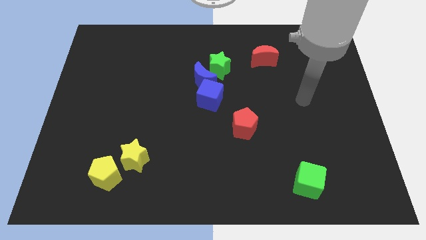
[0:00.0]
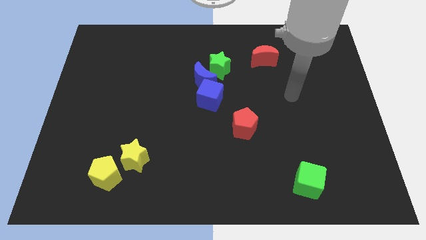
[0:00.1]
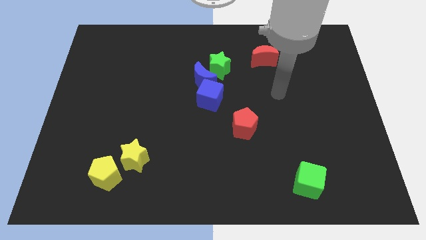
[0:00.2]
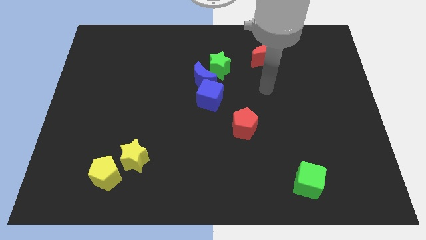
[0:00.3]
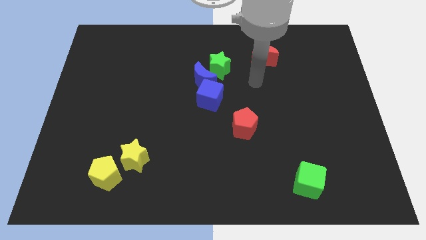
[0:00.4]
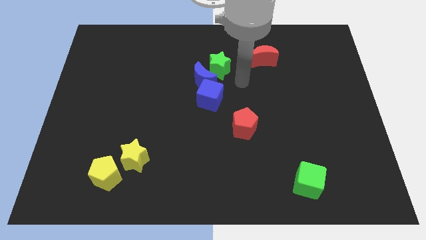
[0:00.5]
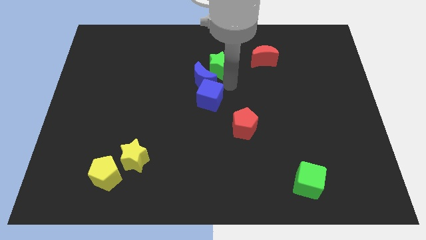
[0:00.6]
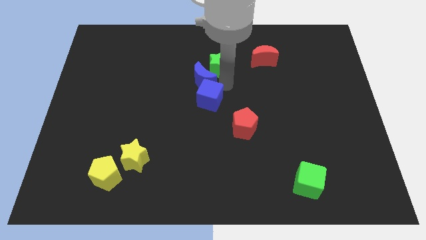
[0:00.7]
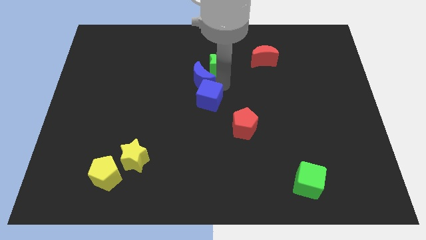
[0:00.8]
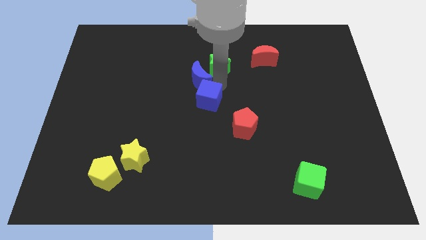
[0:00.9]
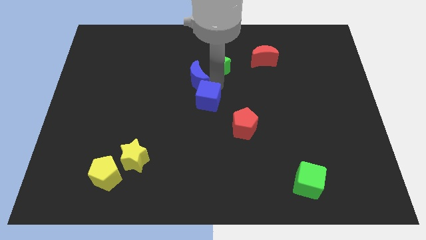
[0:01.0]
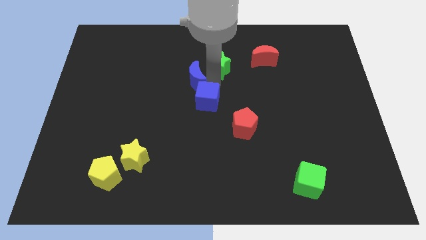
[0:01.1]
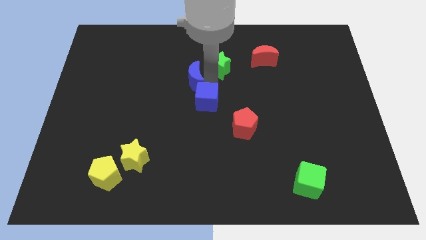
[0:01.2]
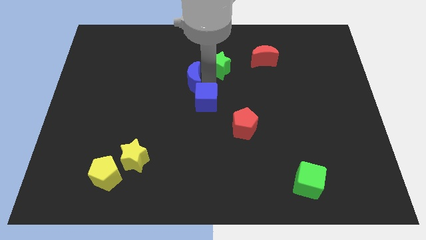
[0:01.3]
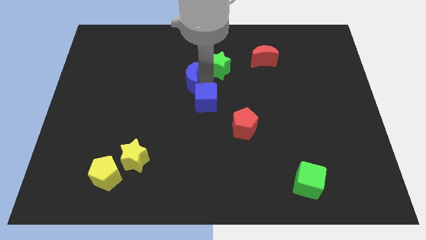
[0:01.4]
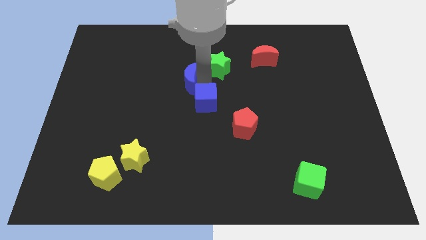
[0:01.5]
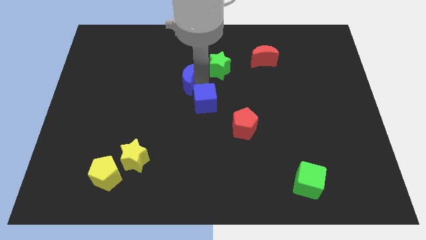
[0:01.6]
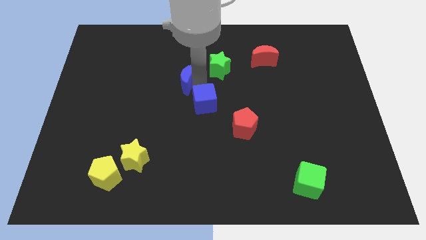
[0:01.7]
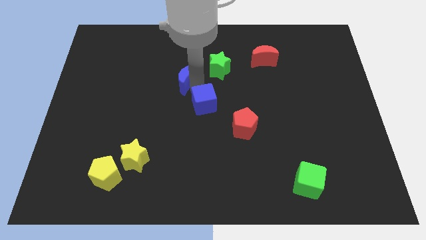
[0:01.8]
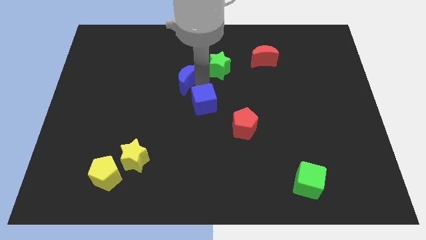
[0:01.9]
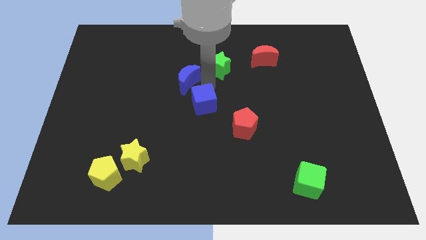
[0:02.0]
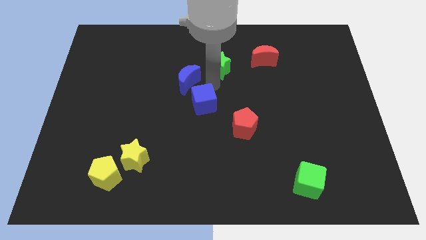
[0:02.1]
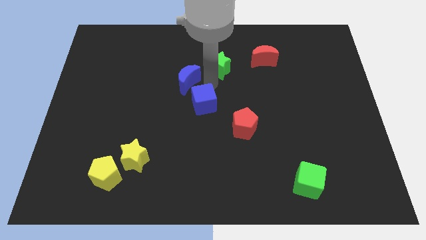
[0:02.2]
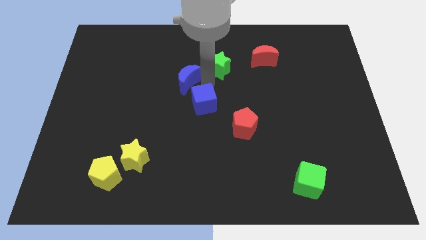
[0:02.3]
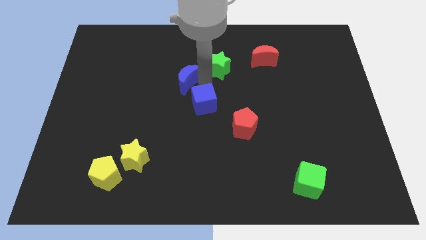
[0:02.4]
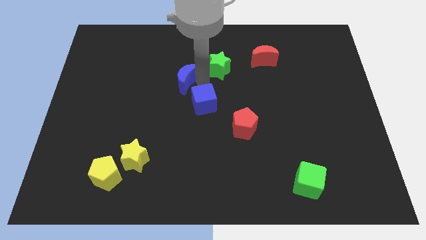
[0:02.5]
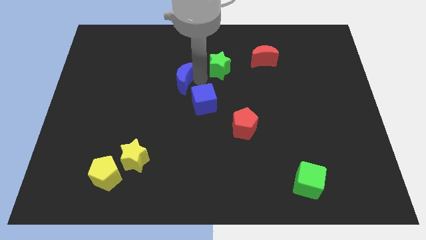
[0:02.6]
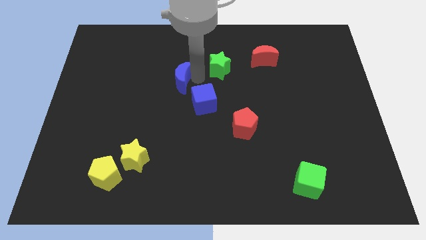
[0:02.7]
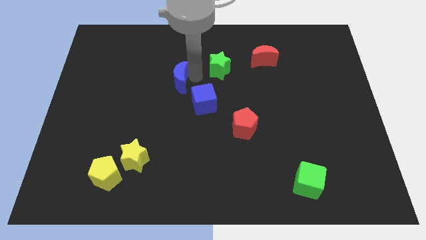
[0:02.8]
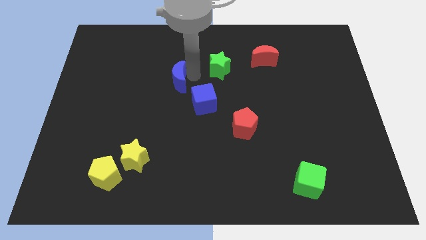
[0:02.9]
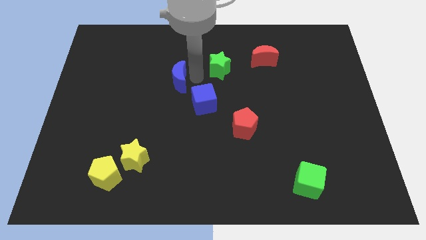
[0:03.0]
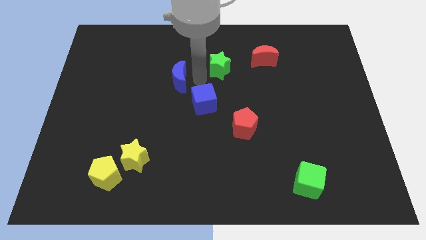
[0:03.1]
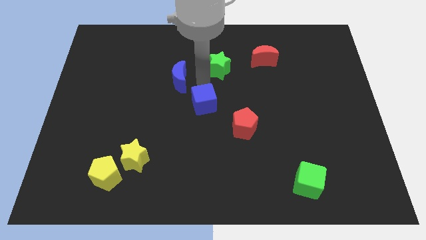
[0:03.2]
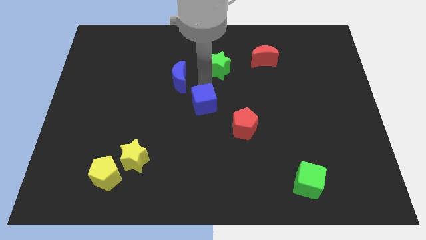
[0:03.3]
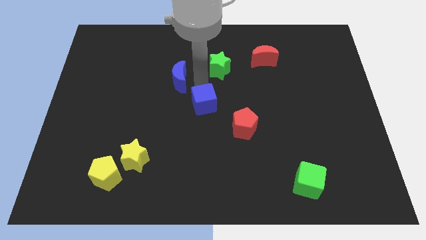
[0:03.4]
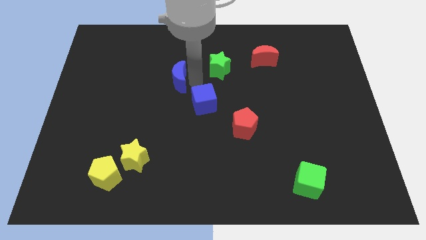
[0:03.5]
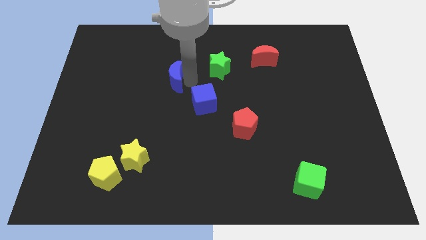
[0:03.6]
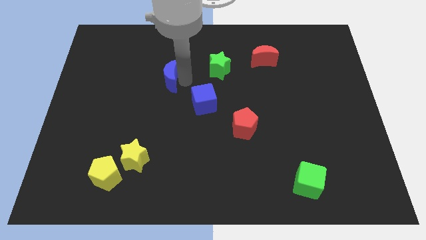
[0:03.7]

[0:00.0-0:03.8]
move the blue moon away from the blue cube and green star

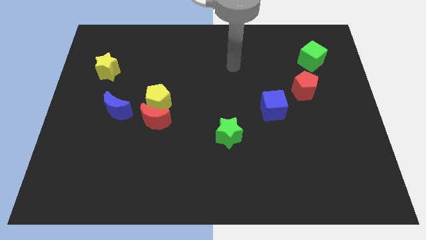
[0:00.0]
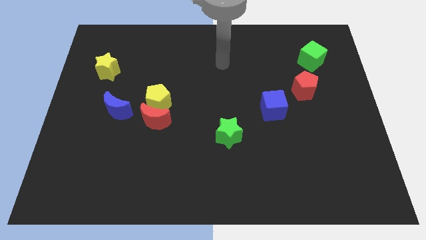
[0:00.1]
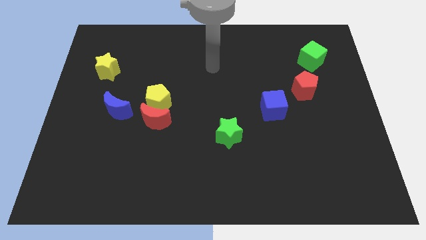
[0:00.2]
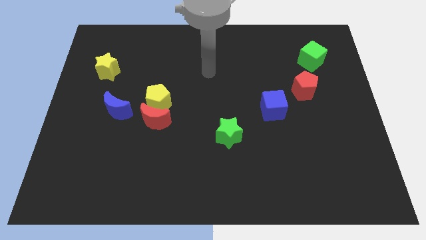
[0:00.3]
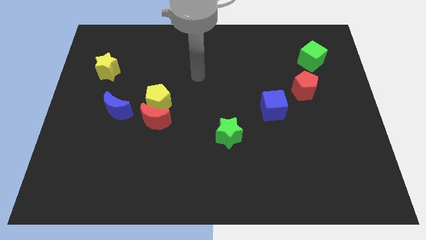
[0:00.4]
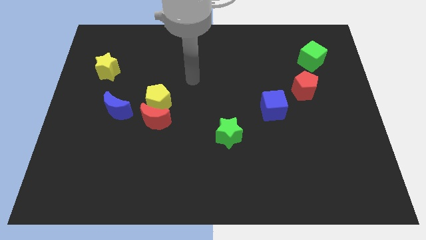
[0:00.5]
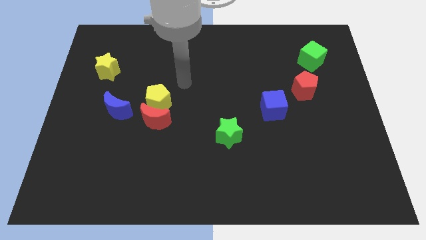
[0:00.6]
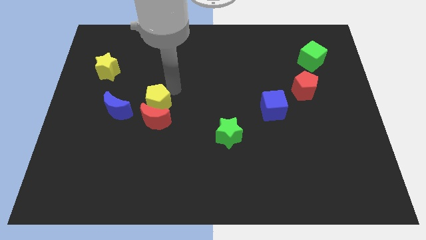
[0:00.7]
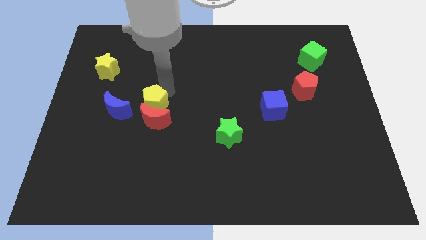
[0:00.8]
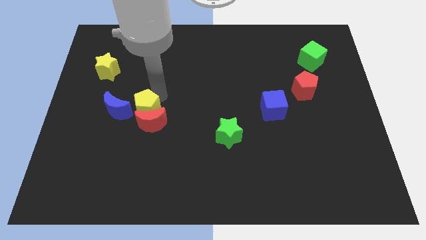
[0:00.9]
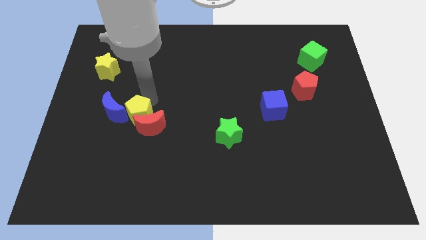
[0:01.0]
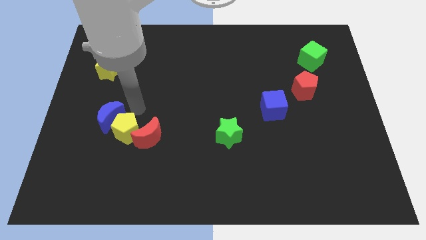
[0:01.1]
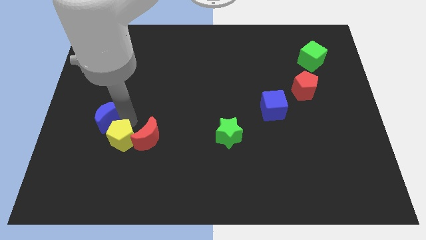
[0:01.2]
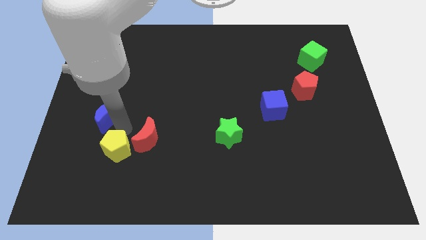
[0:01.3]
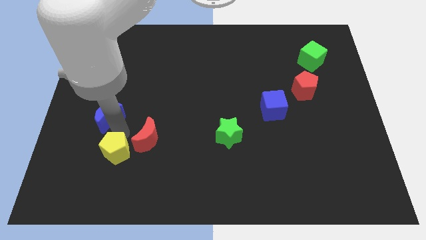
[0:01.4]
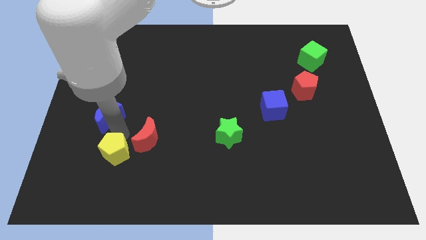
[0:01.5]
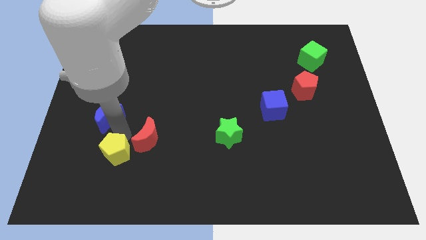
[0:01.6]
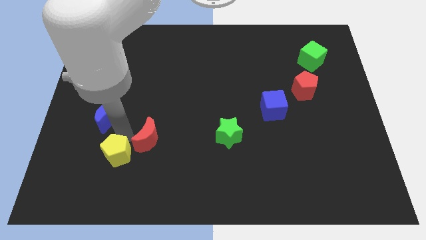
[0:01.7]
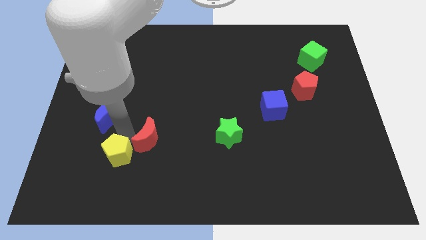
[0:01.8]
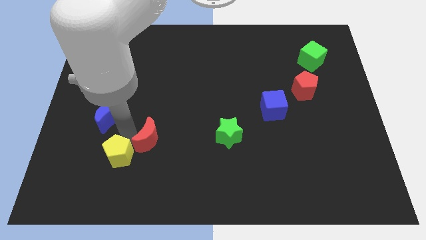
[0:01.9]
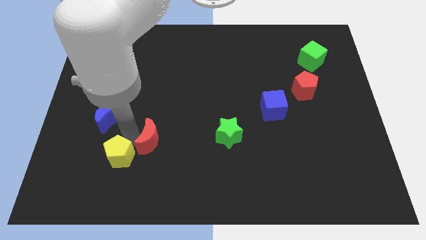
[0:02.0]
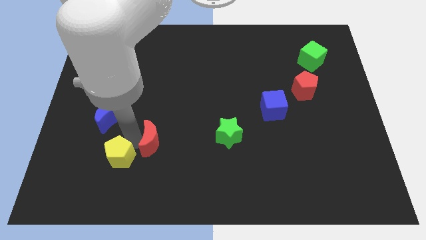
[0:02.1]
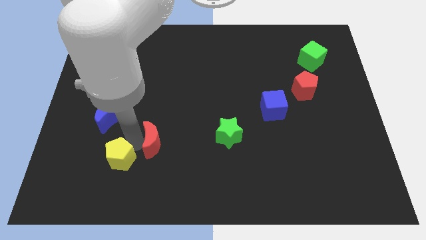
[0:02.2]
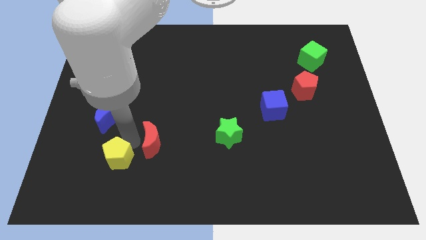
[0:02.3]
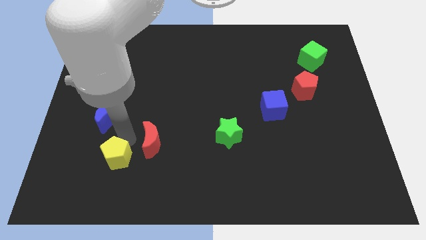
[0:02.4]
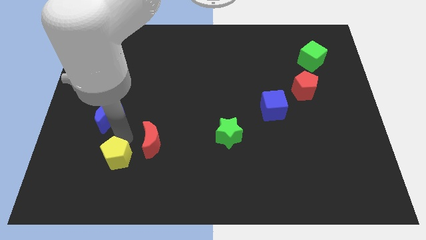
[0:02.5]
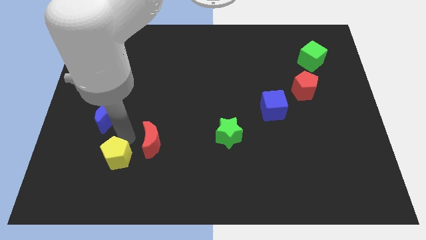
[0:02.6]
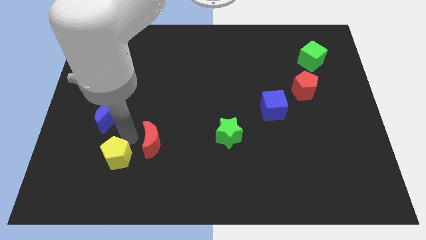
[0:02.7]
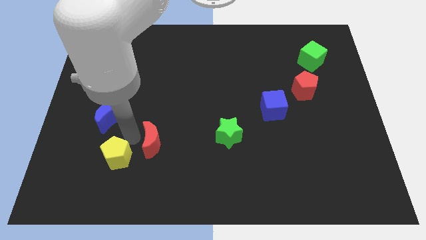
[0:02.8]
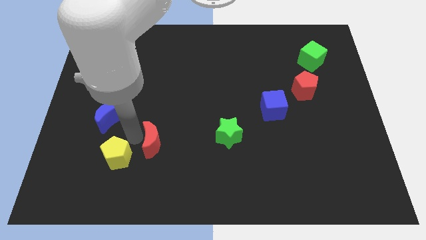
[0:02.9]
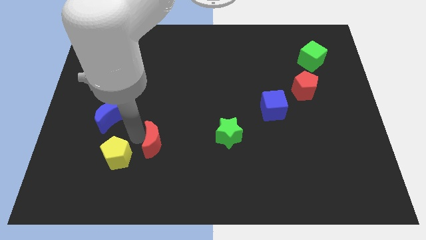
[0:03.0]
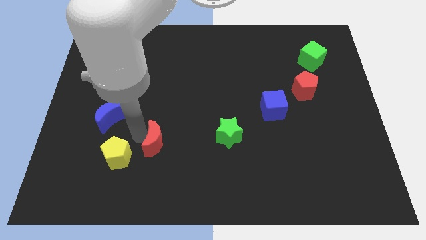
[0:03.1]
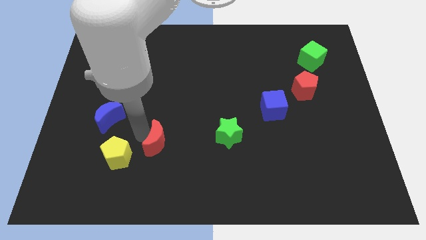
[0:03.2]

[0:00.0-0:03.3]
move the red moon away from the yellow pentagon and blue moon

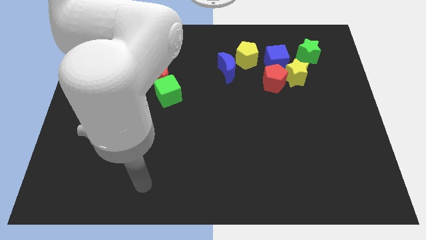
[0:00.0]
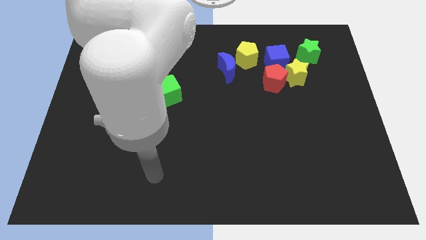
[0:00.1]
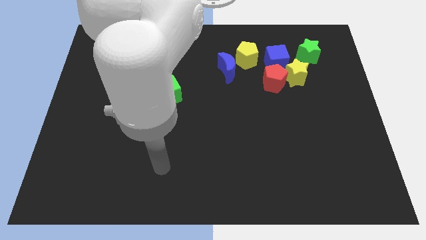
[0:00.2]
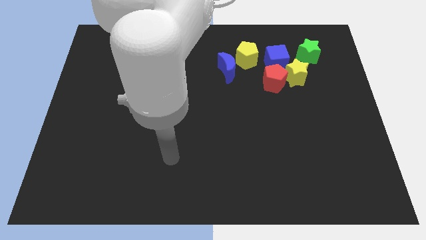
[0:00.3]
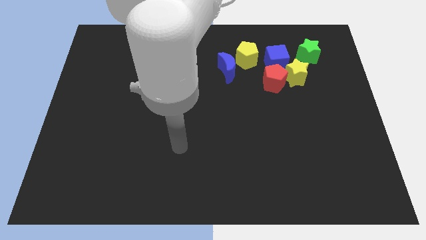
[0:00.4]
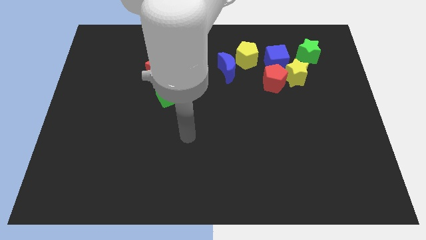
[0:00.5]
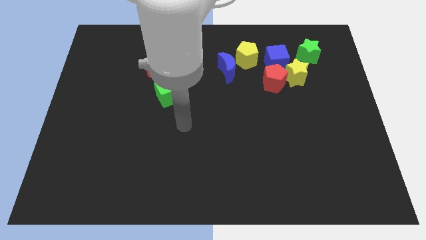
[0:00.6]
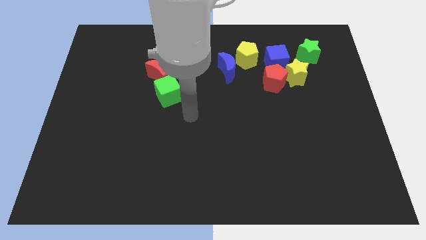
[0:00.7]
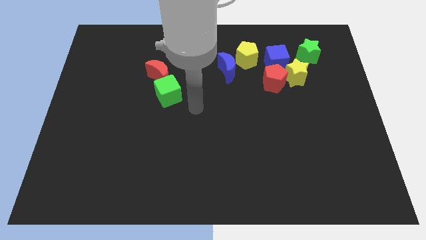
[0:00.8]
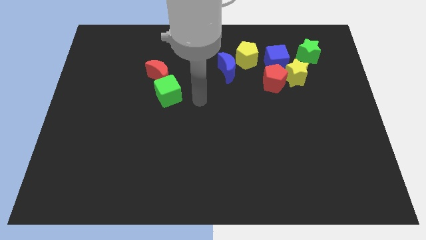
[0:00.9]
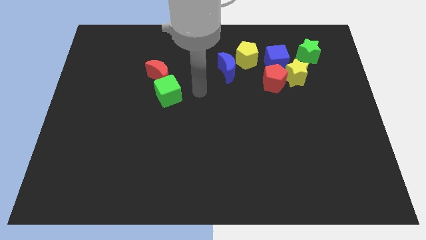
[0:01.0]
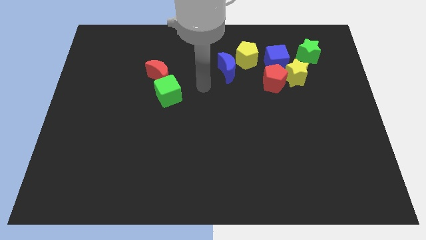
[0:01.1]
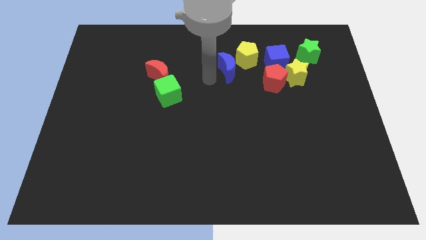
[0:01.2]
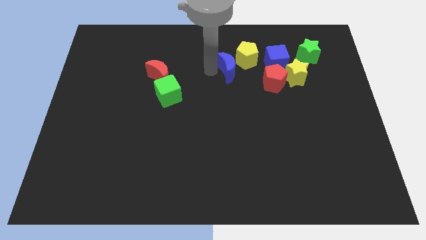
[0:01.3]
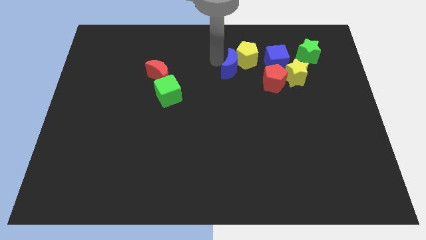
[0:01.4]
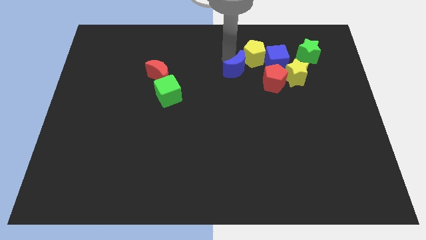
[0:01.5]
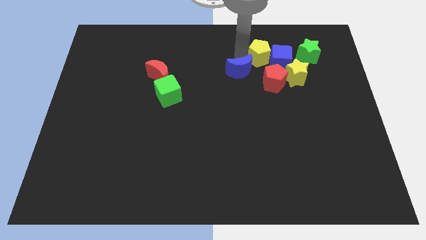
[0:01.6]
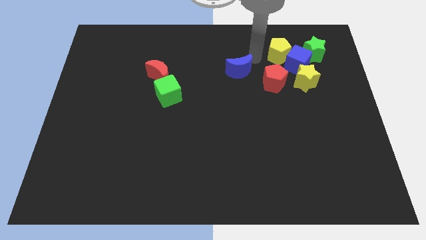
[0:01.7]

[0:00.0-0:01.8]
move the blue moon away from the yellow pentagon

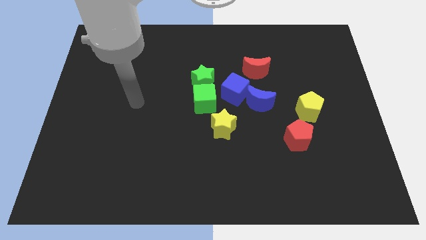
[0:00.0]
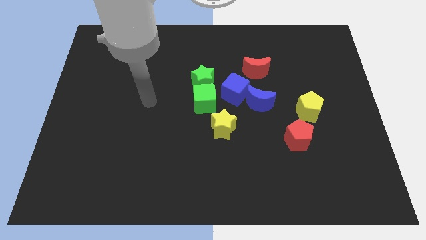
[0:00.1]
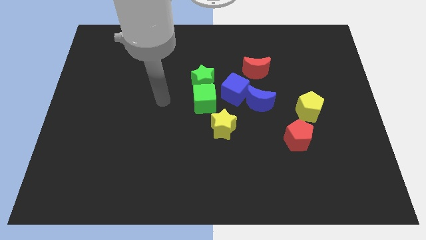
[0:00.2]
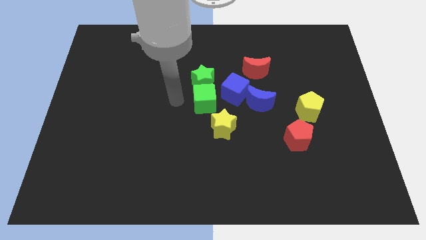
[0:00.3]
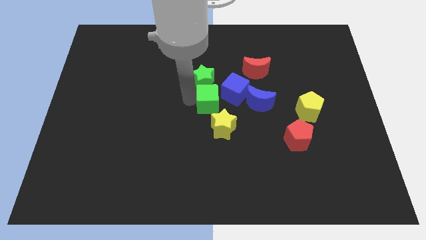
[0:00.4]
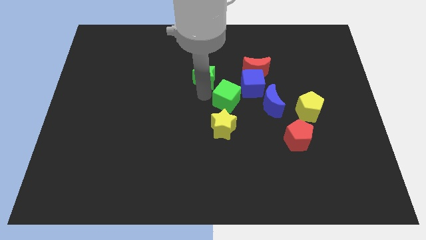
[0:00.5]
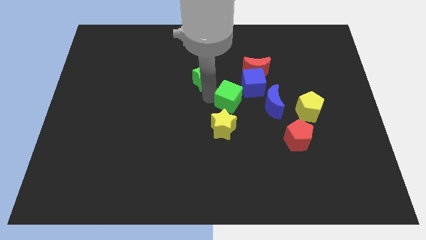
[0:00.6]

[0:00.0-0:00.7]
pull the green star apart from the green cube and blue cube
